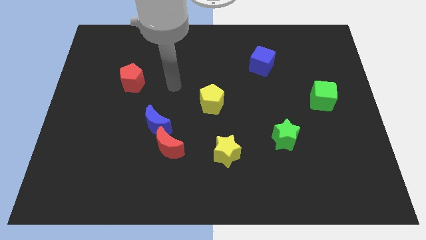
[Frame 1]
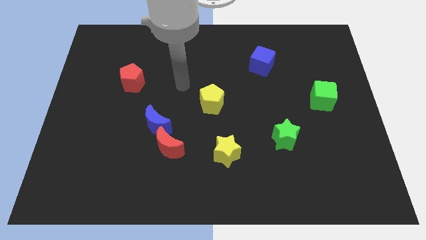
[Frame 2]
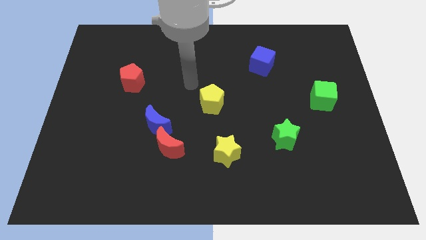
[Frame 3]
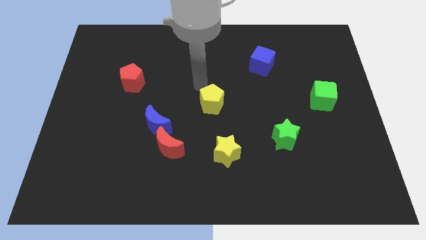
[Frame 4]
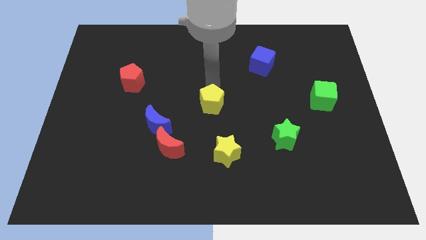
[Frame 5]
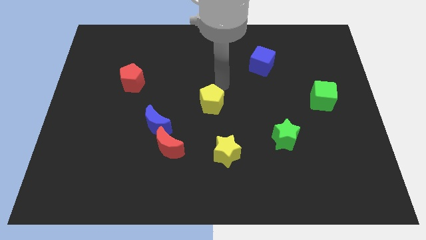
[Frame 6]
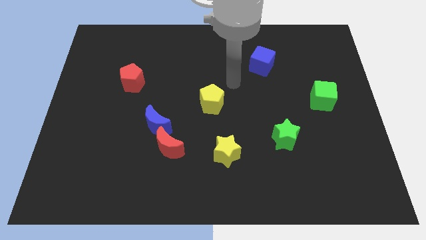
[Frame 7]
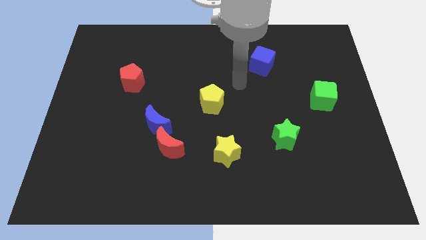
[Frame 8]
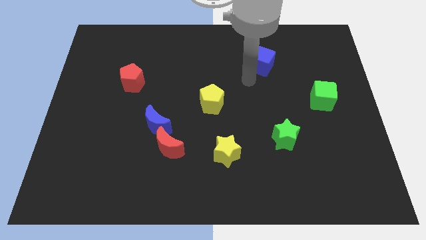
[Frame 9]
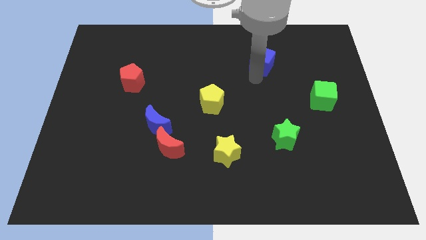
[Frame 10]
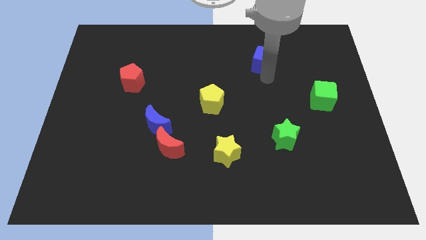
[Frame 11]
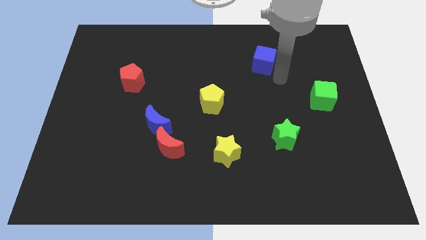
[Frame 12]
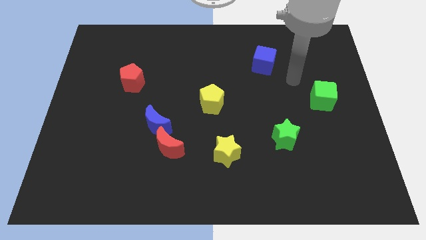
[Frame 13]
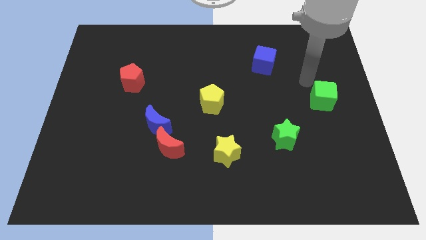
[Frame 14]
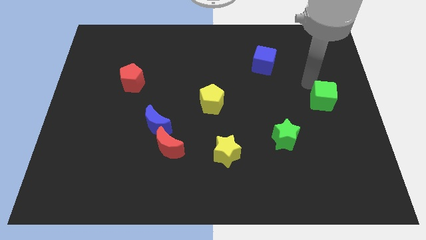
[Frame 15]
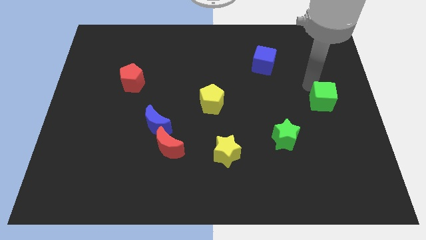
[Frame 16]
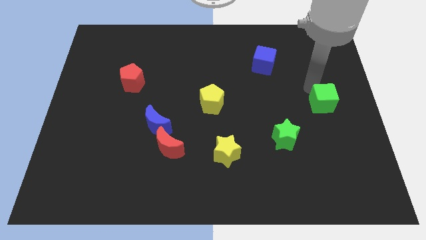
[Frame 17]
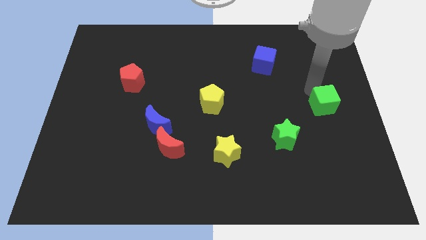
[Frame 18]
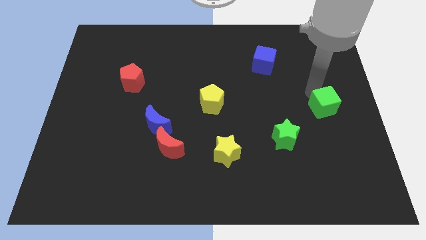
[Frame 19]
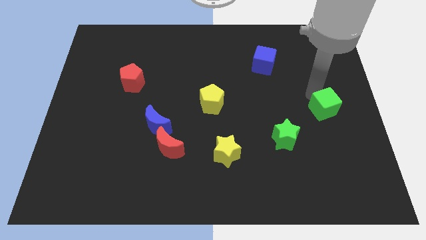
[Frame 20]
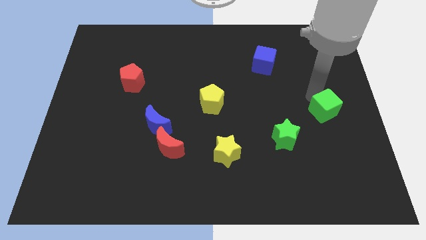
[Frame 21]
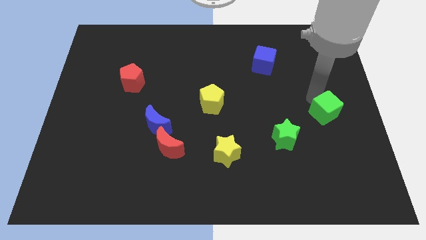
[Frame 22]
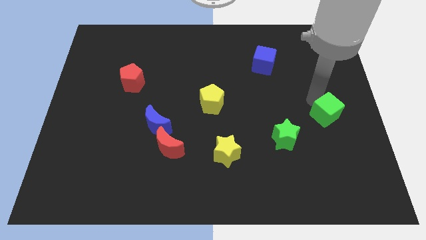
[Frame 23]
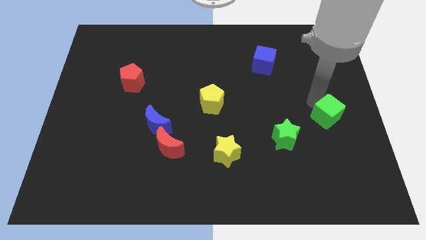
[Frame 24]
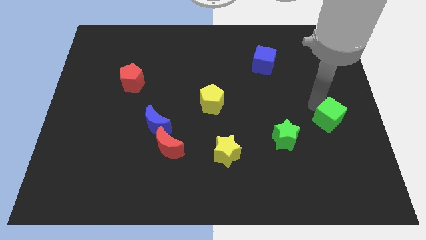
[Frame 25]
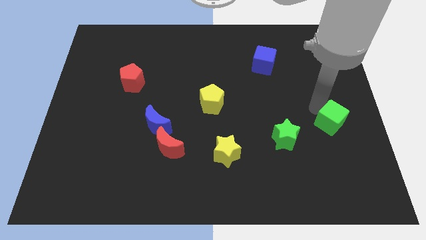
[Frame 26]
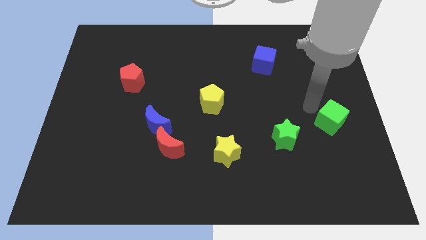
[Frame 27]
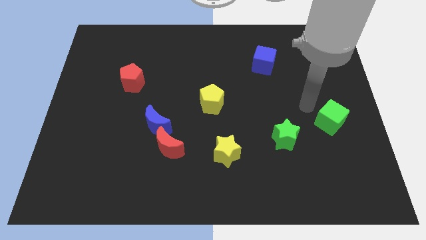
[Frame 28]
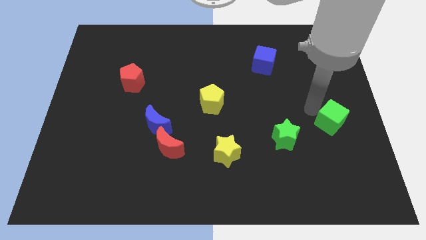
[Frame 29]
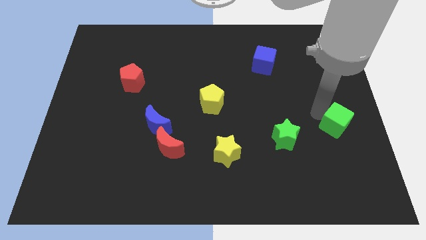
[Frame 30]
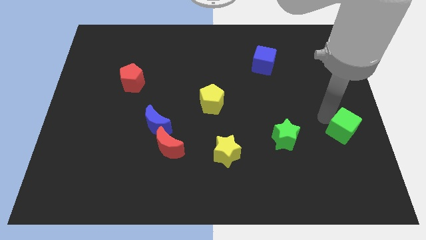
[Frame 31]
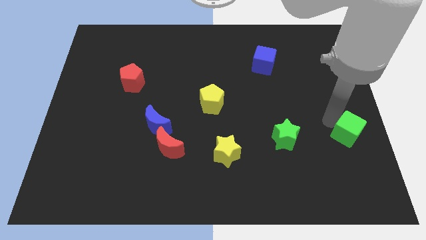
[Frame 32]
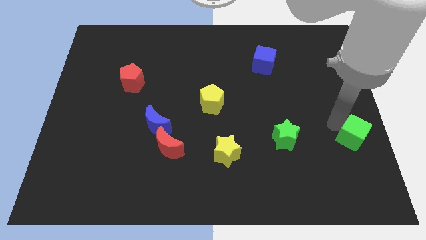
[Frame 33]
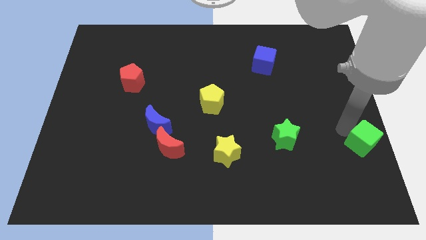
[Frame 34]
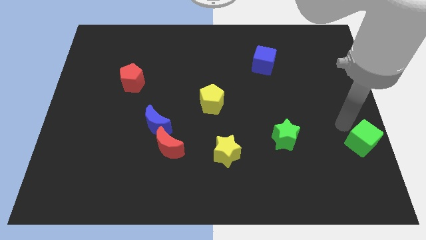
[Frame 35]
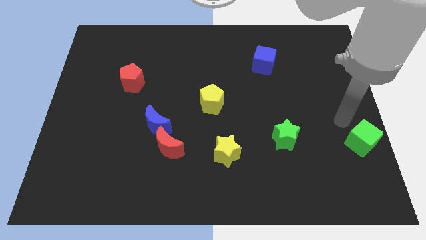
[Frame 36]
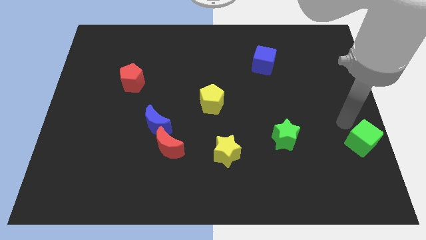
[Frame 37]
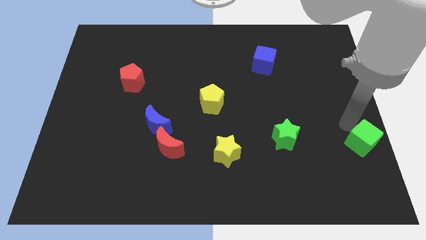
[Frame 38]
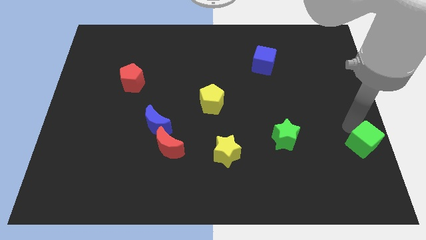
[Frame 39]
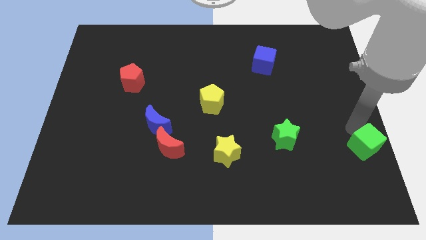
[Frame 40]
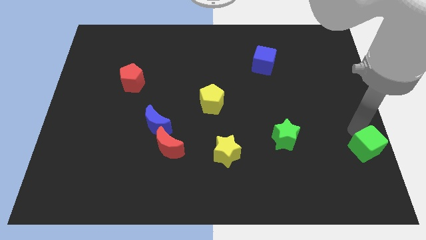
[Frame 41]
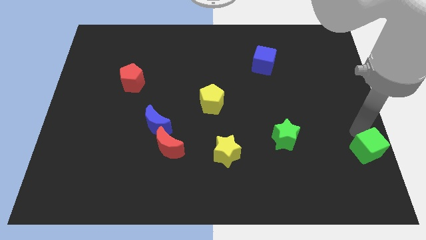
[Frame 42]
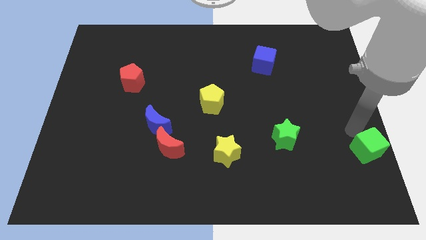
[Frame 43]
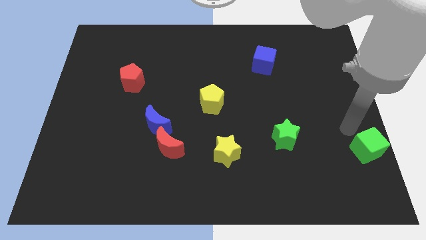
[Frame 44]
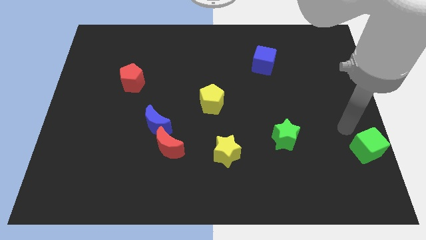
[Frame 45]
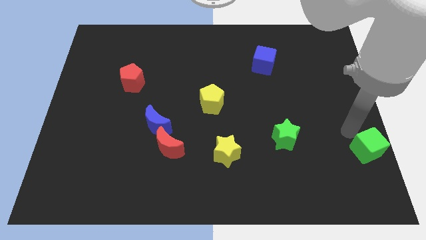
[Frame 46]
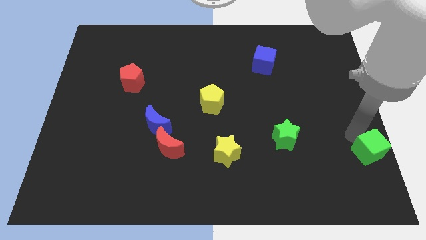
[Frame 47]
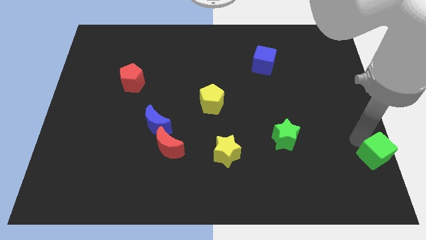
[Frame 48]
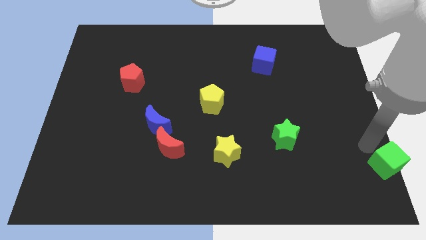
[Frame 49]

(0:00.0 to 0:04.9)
put the green cube to the bottom right of the board

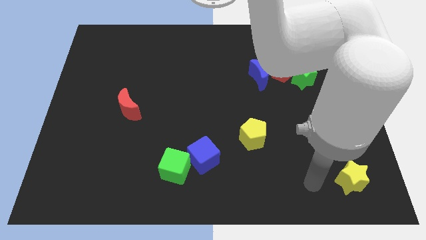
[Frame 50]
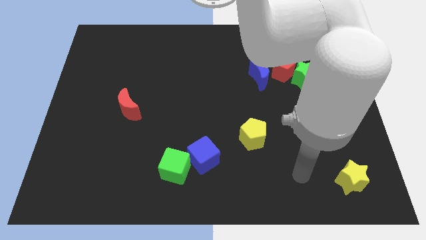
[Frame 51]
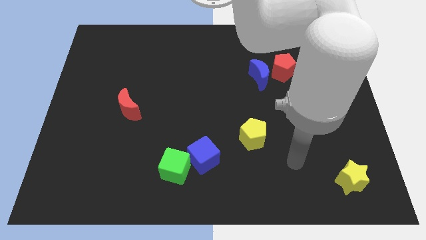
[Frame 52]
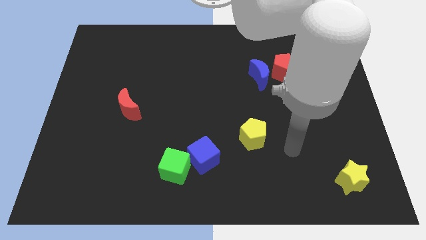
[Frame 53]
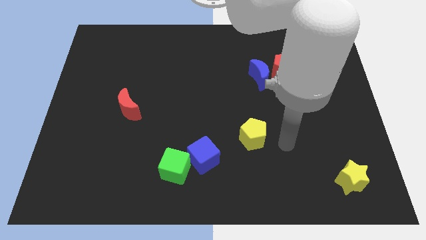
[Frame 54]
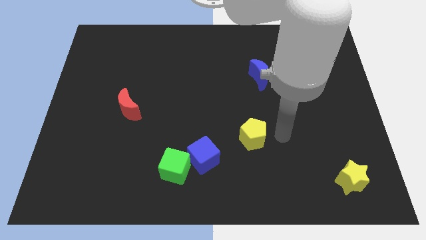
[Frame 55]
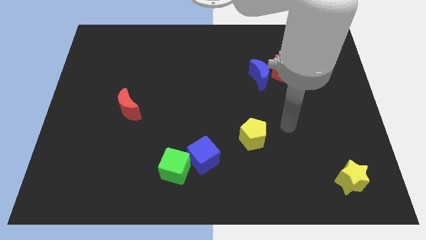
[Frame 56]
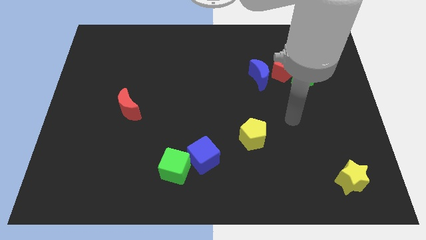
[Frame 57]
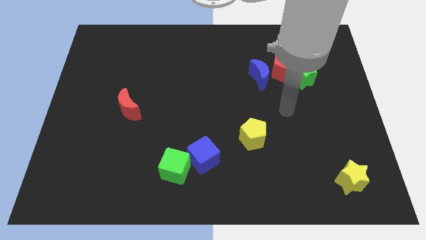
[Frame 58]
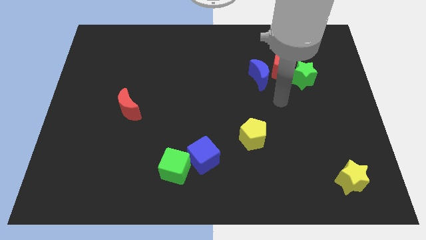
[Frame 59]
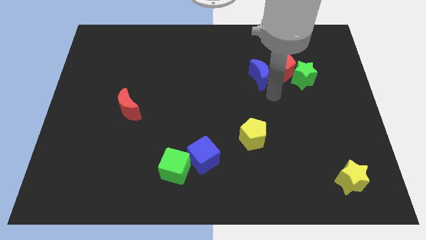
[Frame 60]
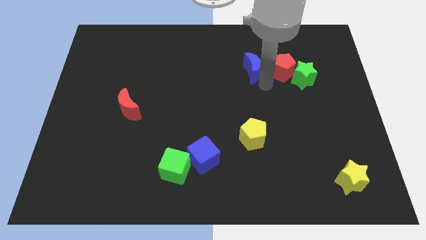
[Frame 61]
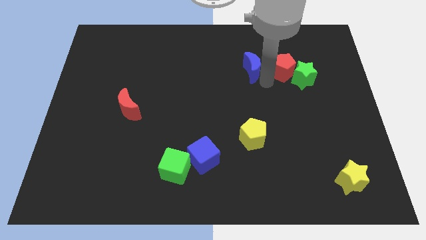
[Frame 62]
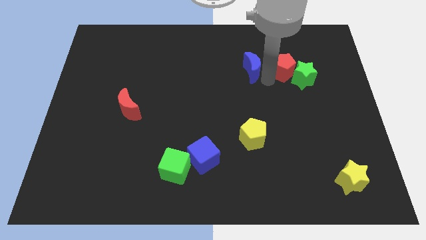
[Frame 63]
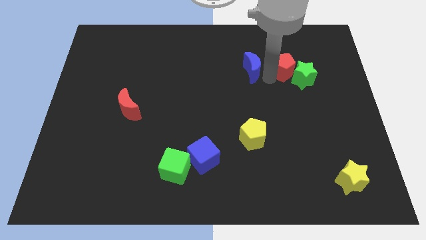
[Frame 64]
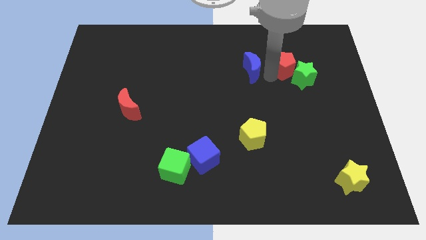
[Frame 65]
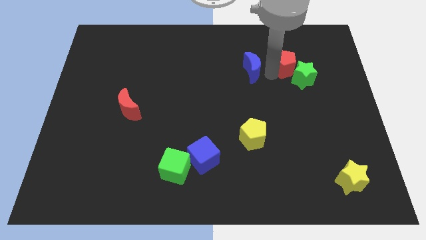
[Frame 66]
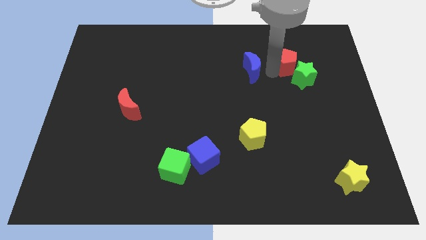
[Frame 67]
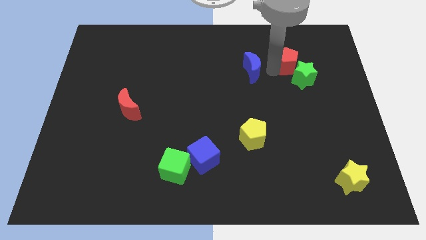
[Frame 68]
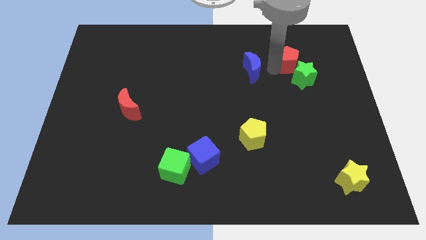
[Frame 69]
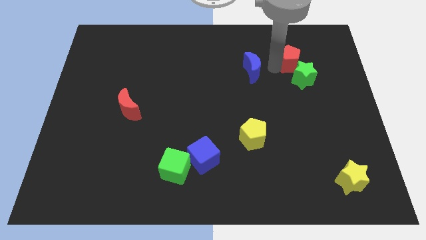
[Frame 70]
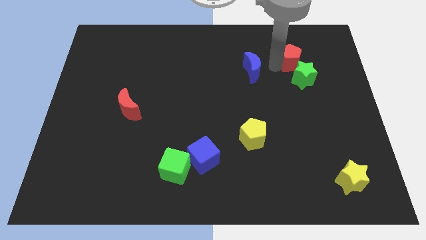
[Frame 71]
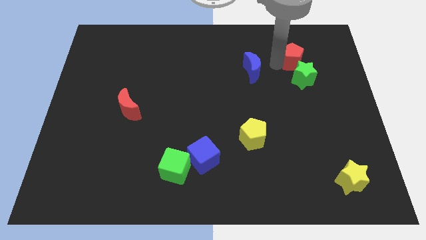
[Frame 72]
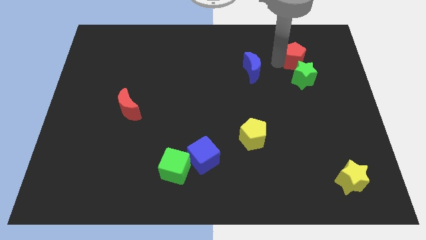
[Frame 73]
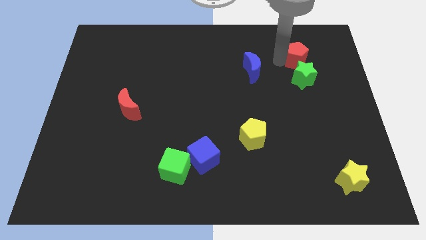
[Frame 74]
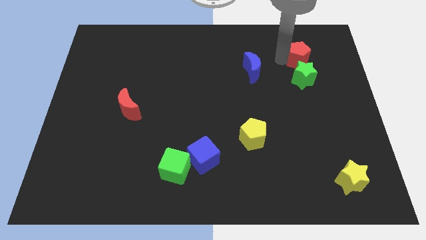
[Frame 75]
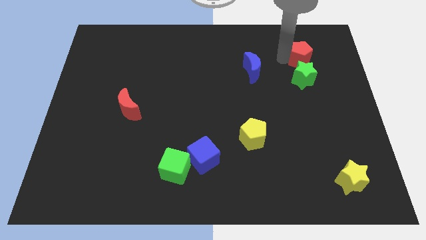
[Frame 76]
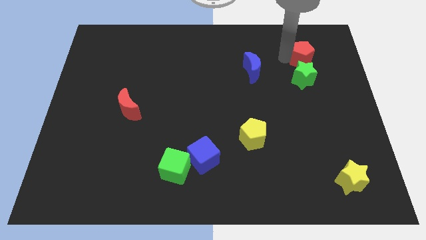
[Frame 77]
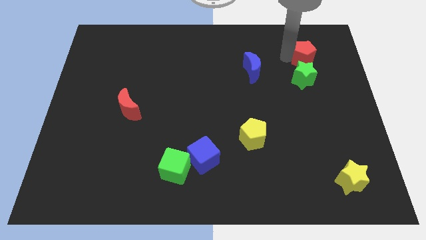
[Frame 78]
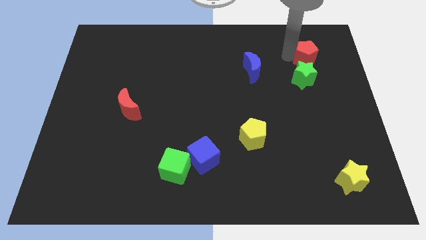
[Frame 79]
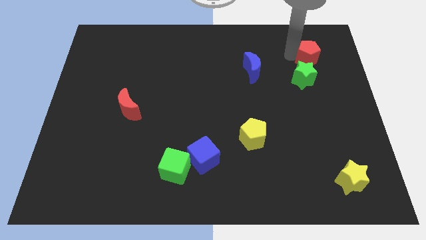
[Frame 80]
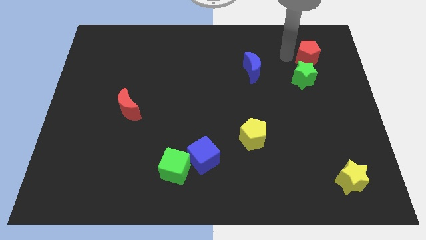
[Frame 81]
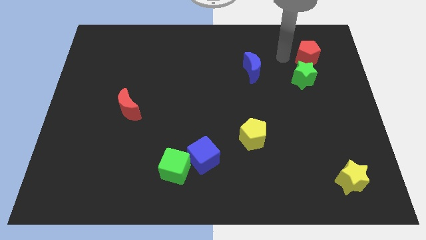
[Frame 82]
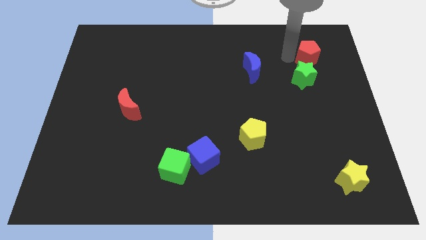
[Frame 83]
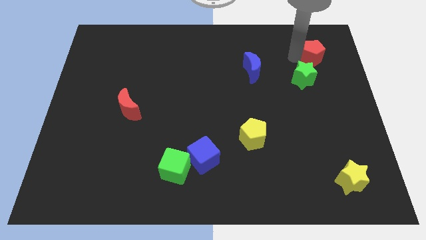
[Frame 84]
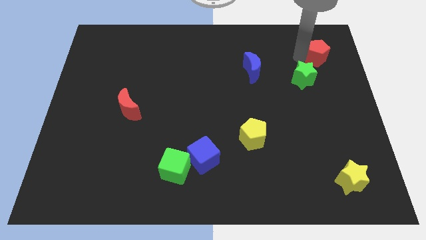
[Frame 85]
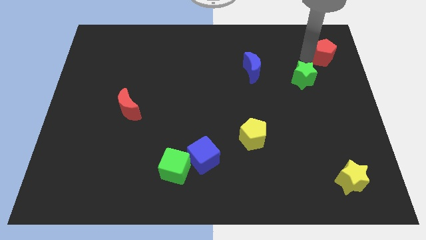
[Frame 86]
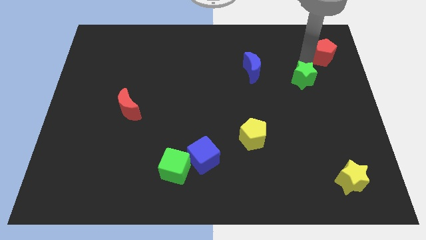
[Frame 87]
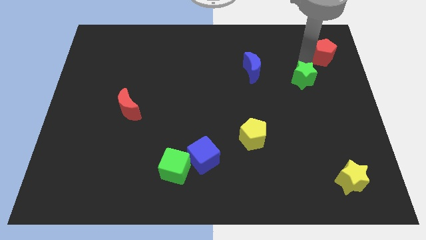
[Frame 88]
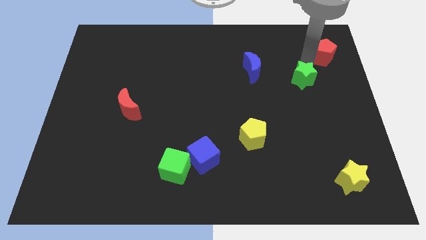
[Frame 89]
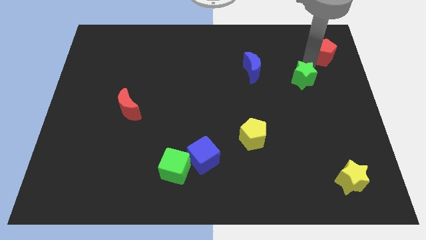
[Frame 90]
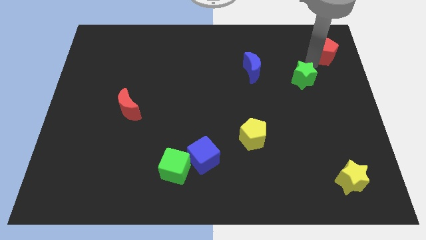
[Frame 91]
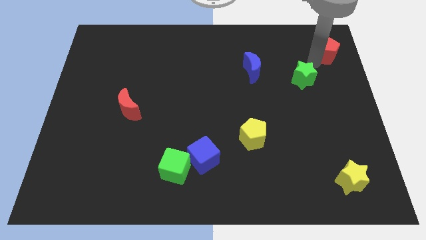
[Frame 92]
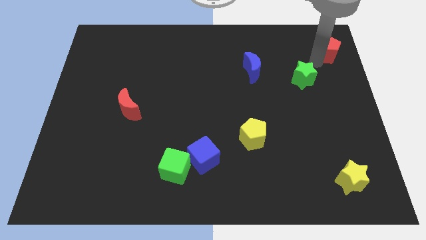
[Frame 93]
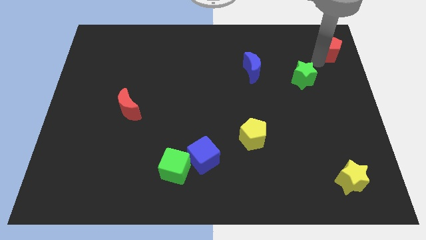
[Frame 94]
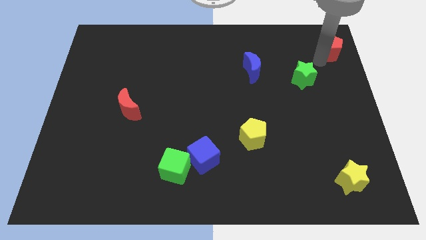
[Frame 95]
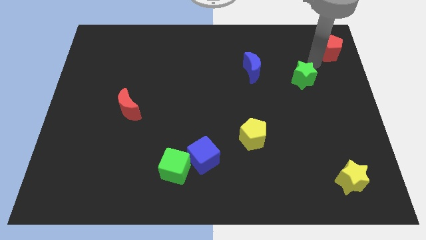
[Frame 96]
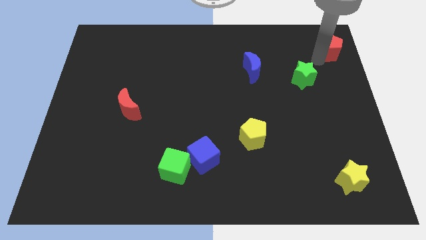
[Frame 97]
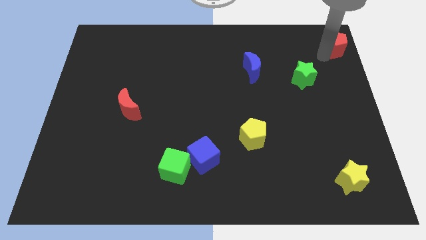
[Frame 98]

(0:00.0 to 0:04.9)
put the red pentagon to the top right corner
